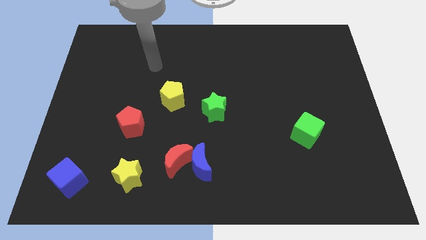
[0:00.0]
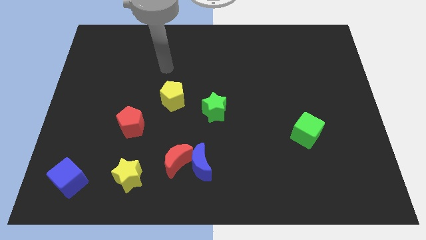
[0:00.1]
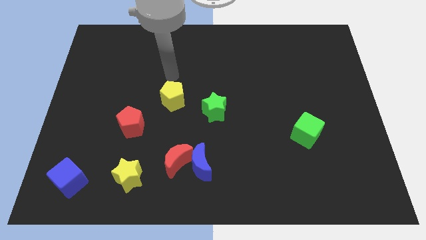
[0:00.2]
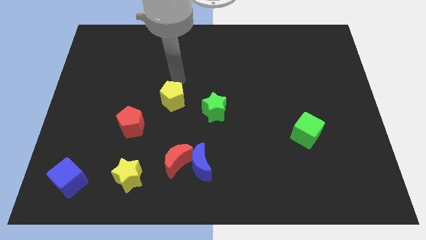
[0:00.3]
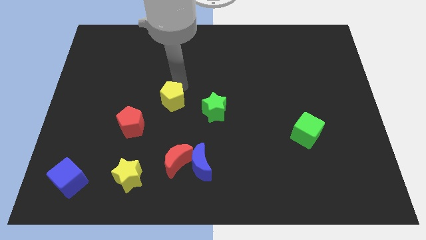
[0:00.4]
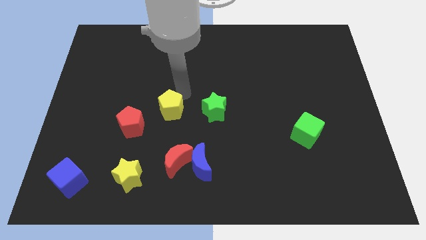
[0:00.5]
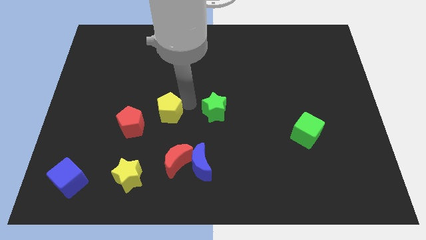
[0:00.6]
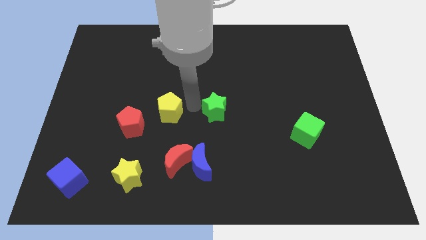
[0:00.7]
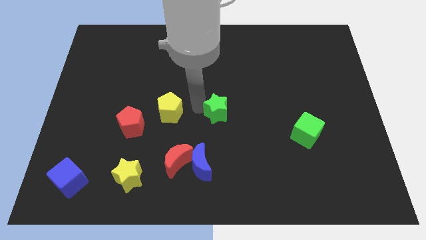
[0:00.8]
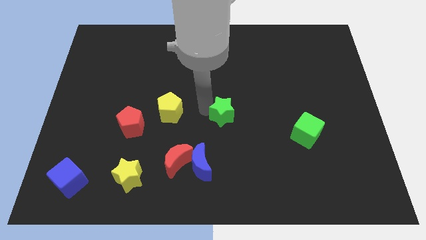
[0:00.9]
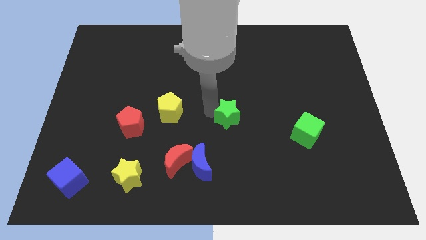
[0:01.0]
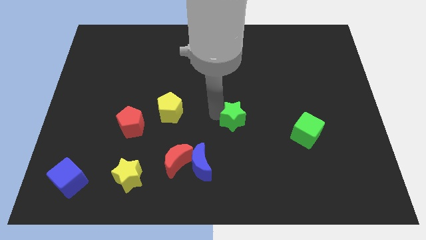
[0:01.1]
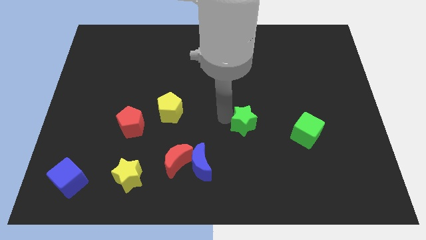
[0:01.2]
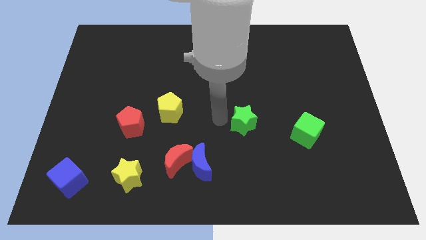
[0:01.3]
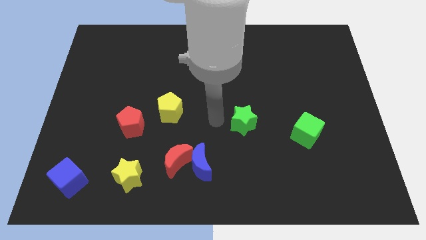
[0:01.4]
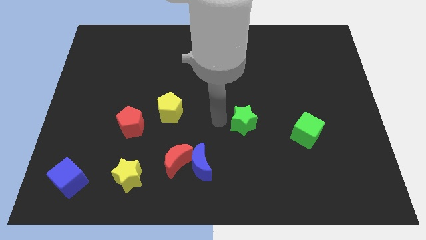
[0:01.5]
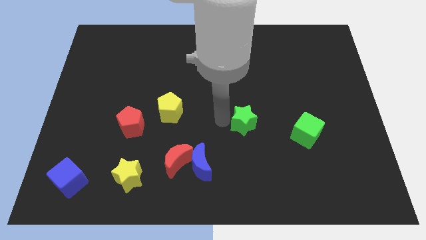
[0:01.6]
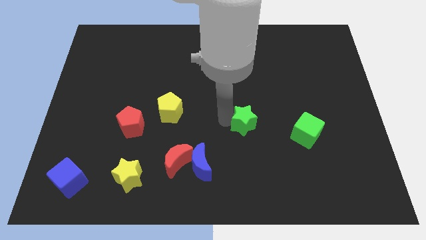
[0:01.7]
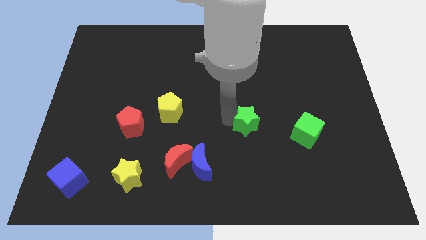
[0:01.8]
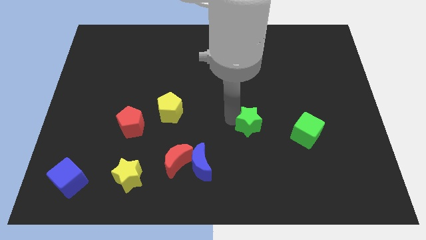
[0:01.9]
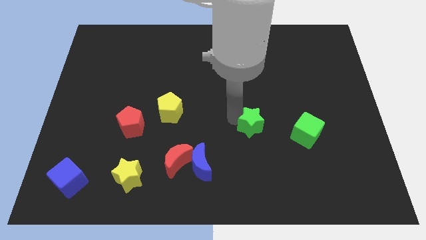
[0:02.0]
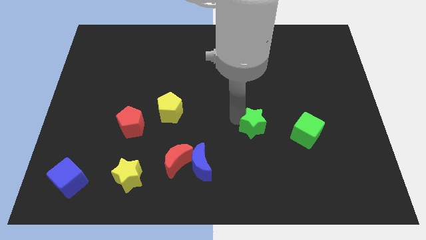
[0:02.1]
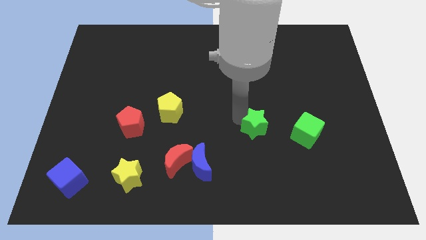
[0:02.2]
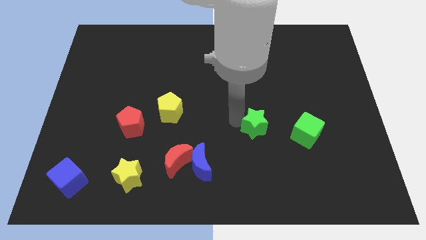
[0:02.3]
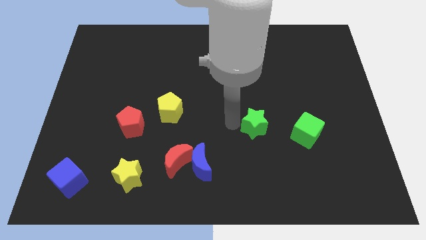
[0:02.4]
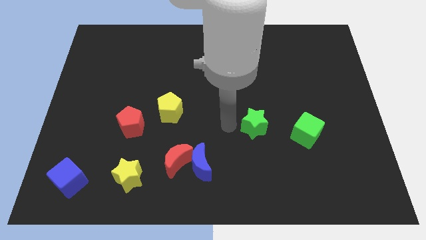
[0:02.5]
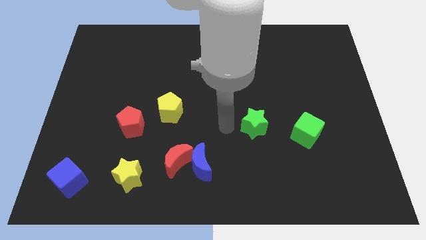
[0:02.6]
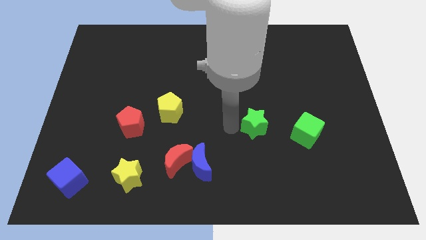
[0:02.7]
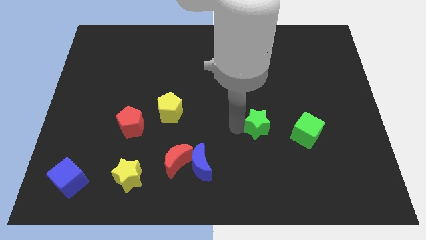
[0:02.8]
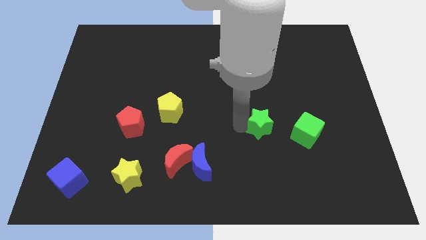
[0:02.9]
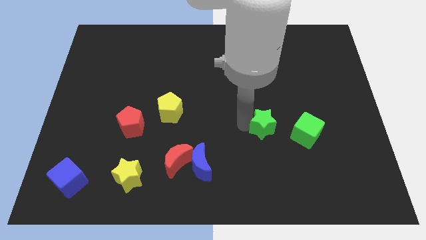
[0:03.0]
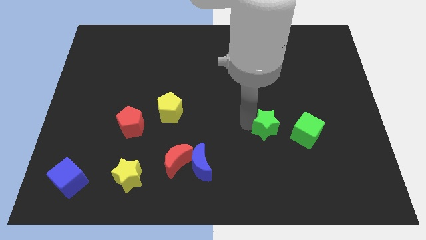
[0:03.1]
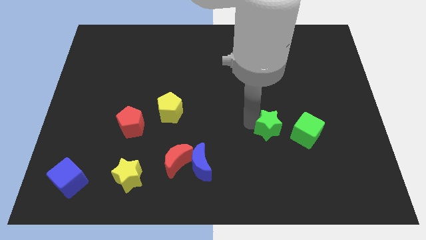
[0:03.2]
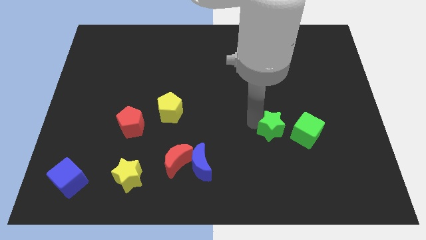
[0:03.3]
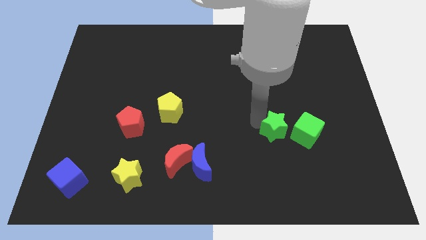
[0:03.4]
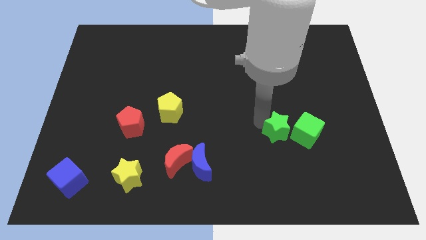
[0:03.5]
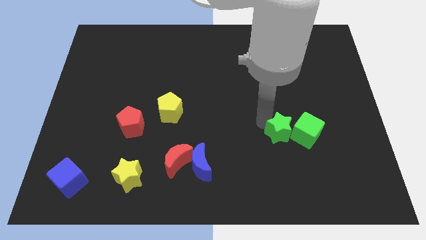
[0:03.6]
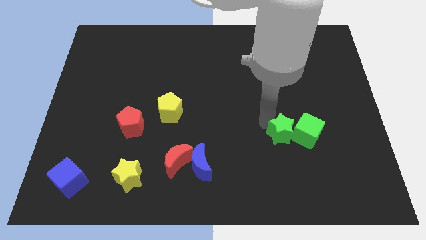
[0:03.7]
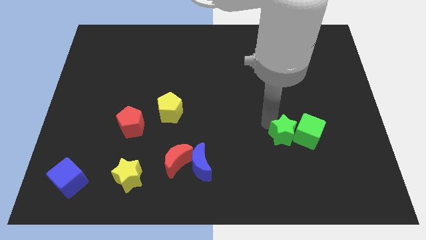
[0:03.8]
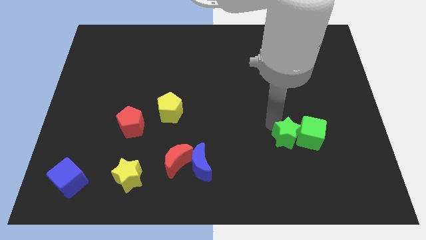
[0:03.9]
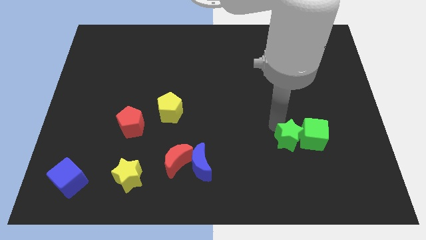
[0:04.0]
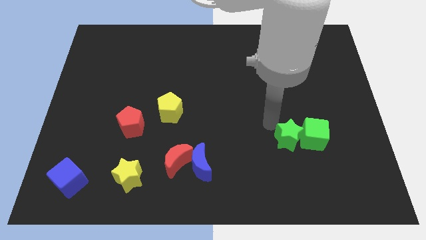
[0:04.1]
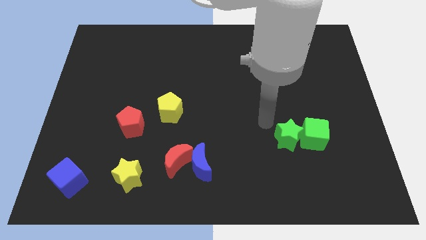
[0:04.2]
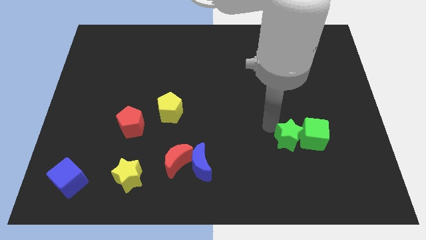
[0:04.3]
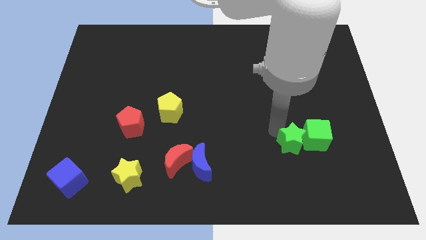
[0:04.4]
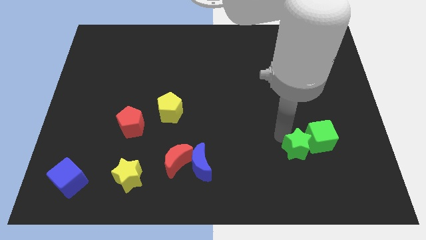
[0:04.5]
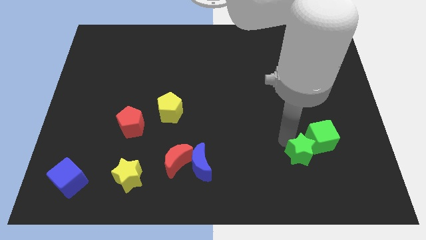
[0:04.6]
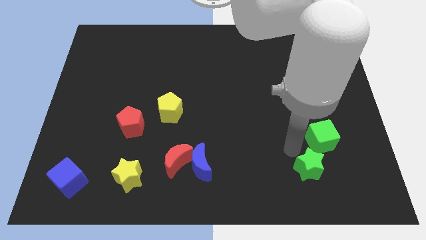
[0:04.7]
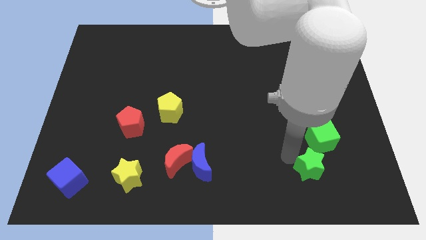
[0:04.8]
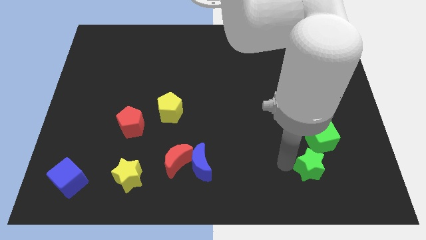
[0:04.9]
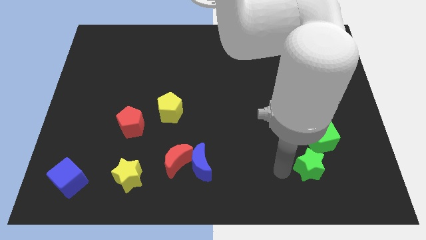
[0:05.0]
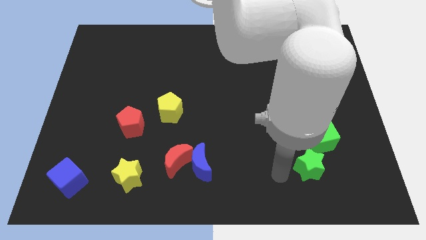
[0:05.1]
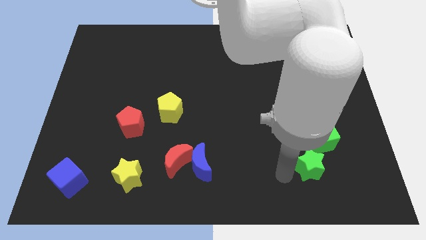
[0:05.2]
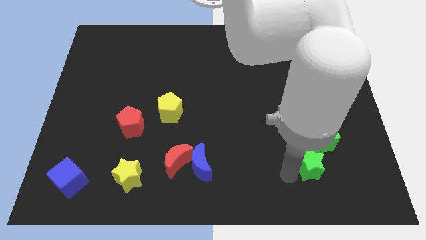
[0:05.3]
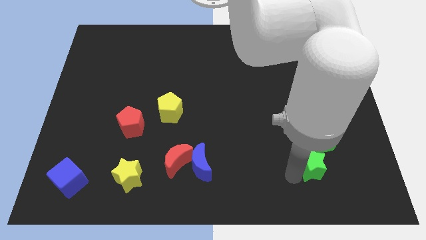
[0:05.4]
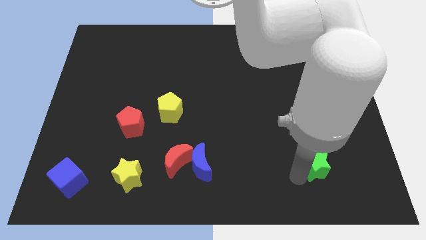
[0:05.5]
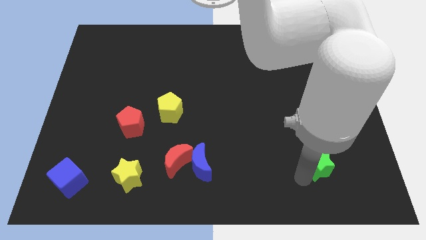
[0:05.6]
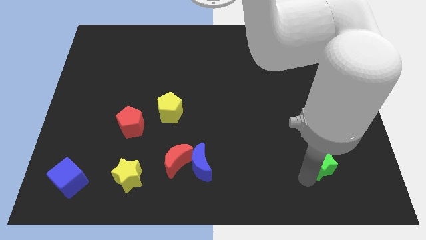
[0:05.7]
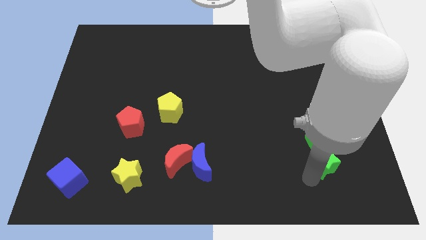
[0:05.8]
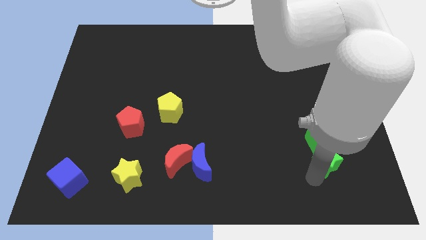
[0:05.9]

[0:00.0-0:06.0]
push the green star to the bottom right of the green cube

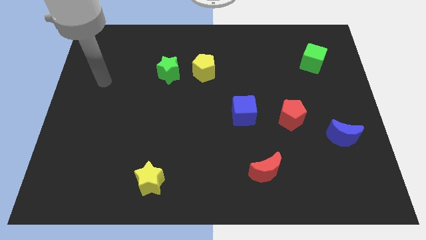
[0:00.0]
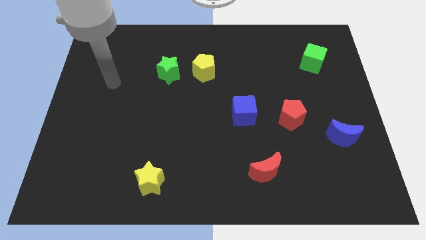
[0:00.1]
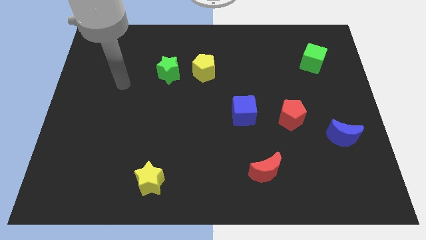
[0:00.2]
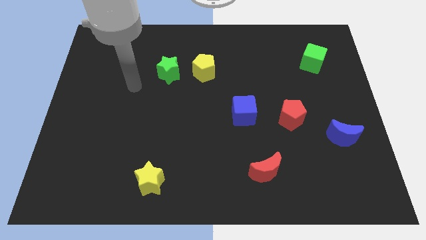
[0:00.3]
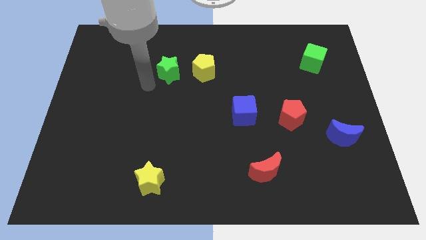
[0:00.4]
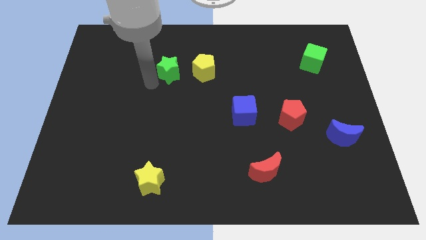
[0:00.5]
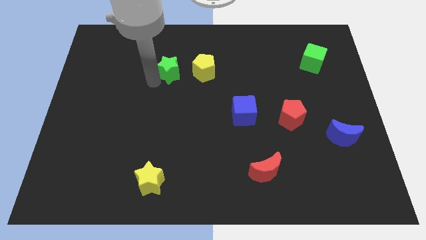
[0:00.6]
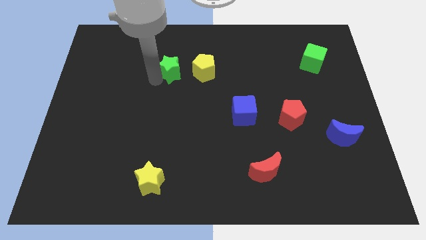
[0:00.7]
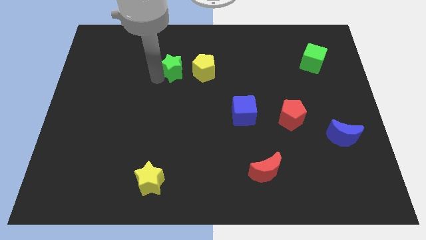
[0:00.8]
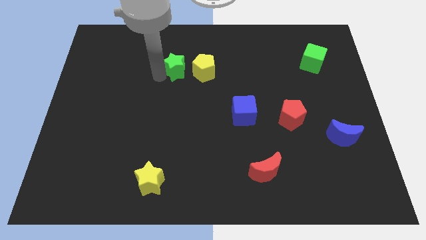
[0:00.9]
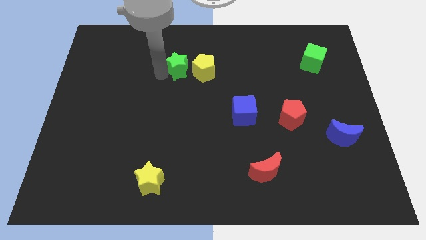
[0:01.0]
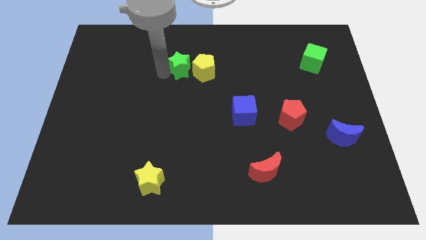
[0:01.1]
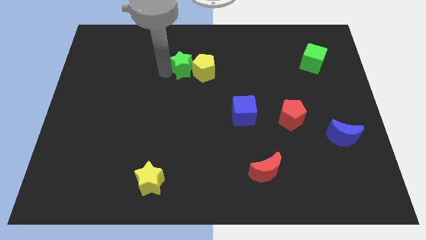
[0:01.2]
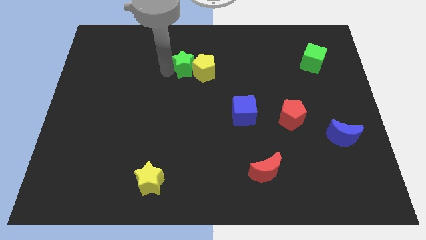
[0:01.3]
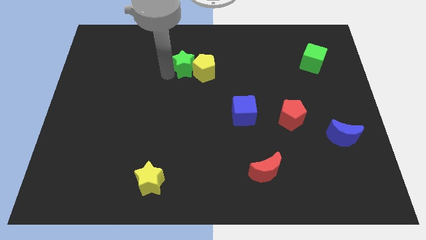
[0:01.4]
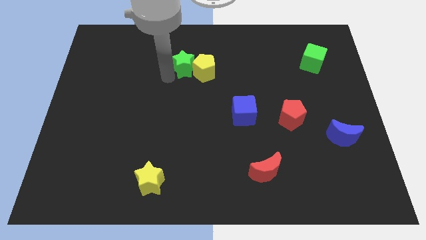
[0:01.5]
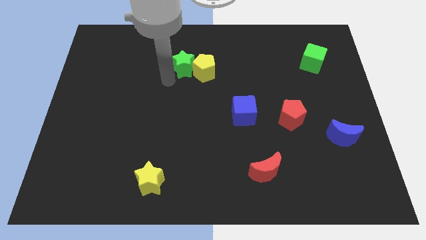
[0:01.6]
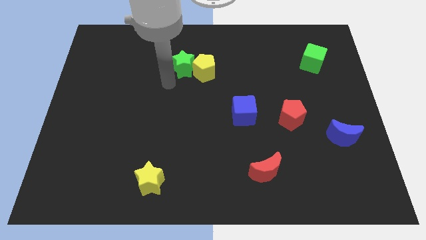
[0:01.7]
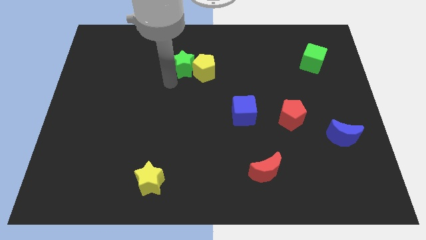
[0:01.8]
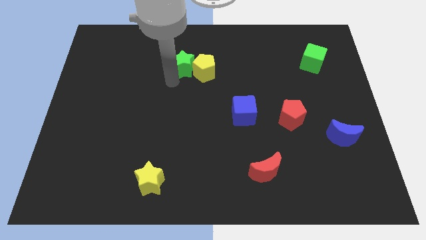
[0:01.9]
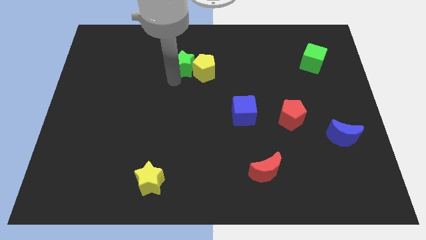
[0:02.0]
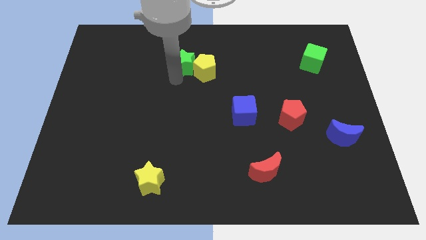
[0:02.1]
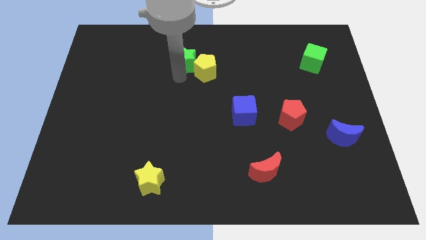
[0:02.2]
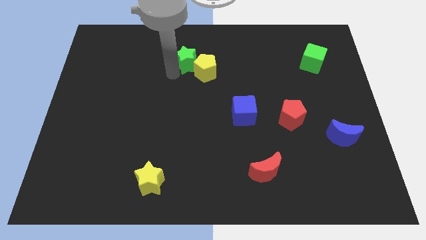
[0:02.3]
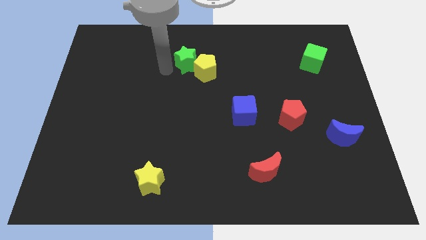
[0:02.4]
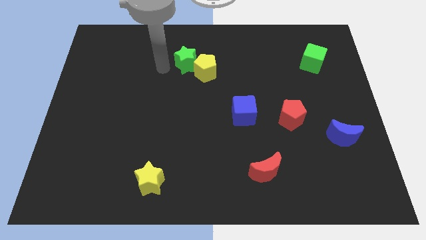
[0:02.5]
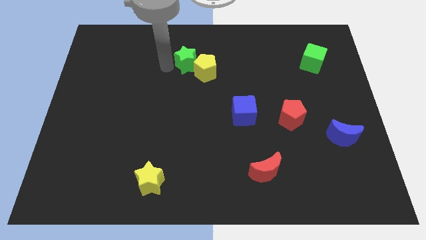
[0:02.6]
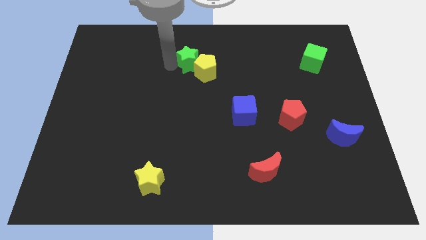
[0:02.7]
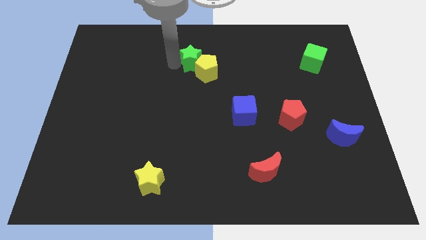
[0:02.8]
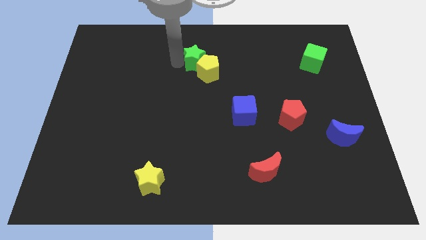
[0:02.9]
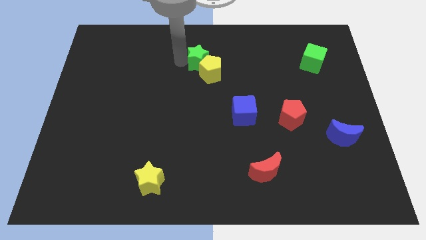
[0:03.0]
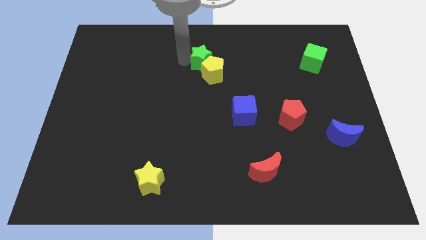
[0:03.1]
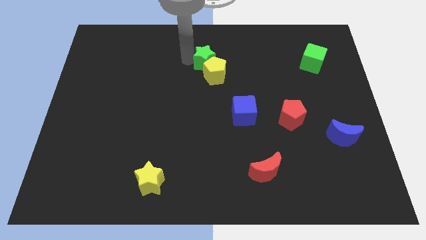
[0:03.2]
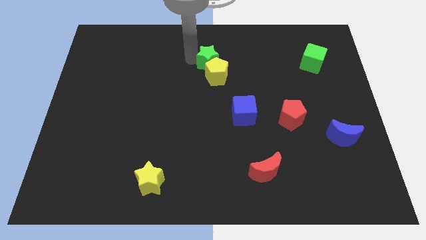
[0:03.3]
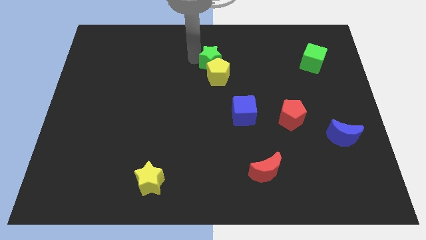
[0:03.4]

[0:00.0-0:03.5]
move the green star to the top right of the yellow pentagon
